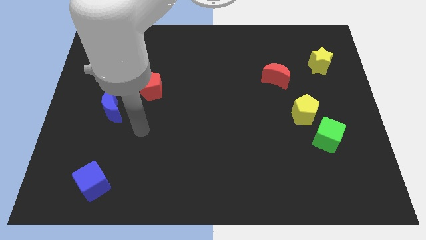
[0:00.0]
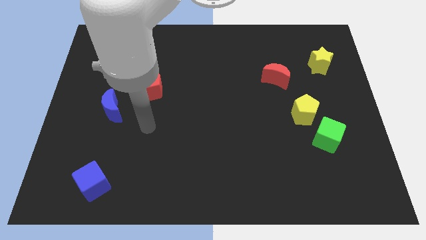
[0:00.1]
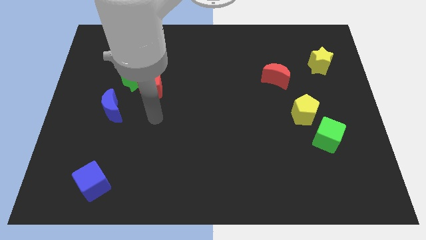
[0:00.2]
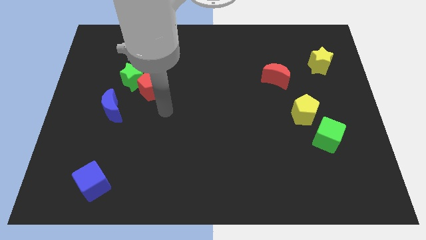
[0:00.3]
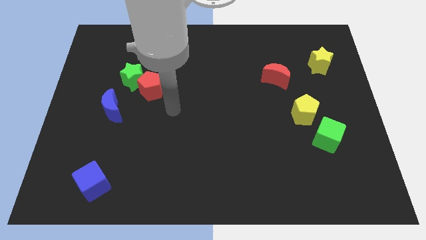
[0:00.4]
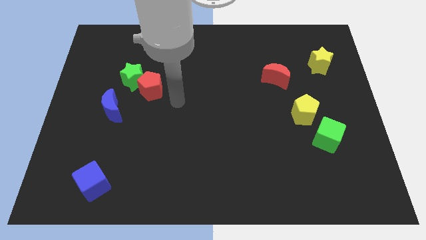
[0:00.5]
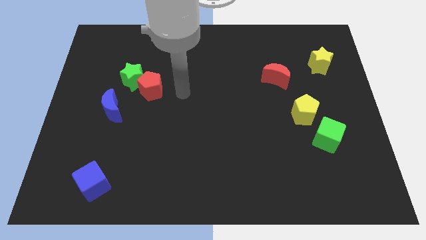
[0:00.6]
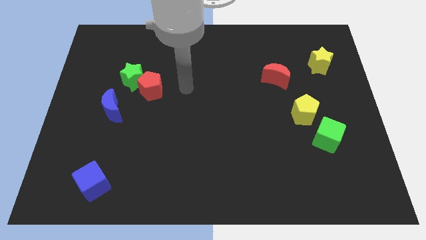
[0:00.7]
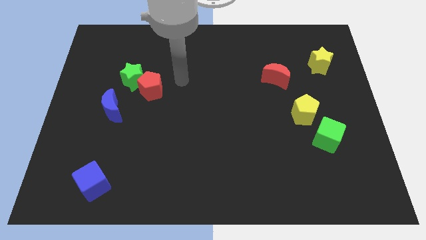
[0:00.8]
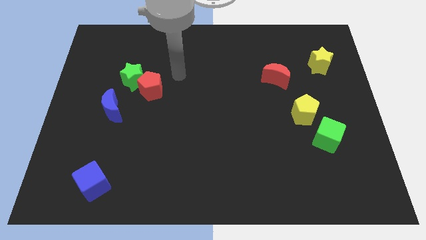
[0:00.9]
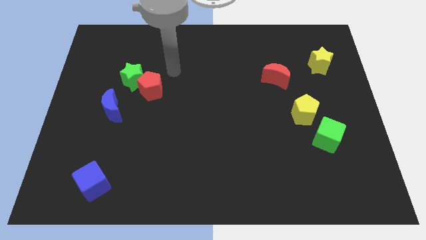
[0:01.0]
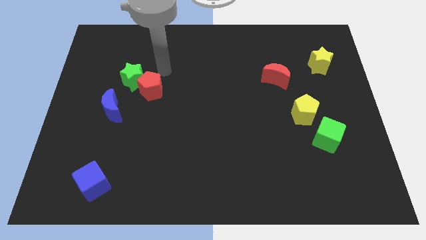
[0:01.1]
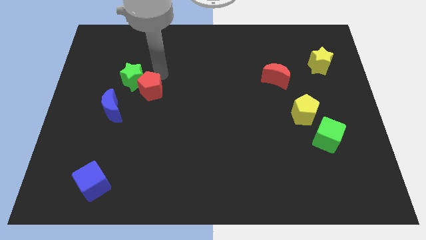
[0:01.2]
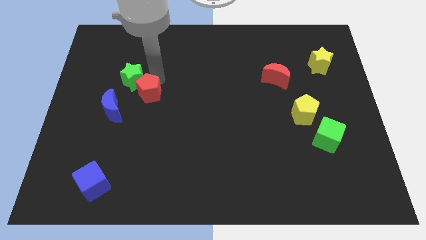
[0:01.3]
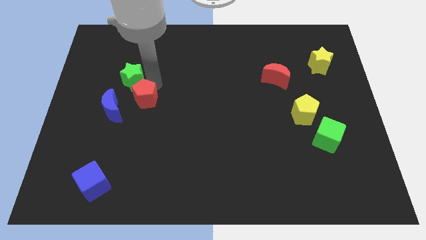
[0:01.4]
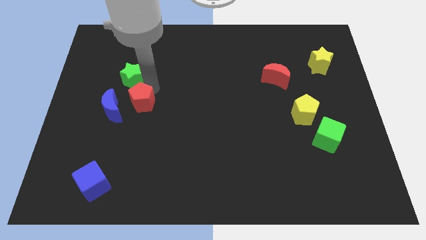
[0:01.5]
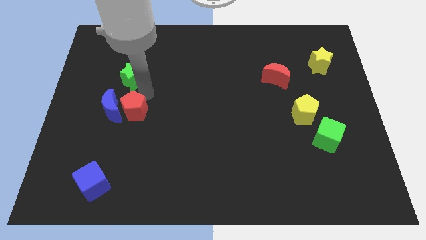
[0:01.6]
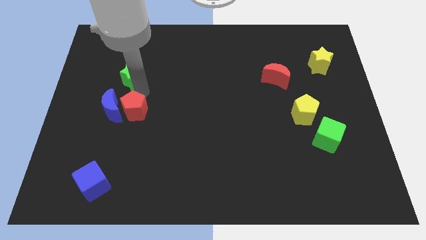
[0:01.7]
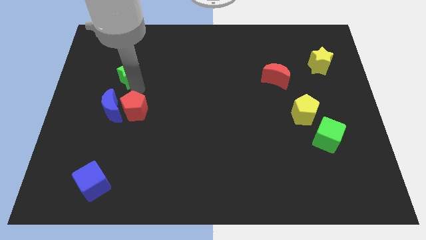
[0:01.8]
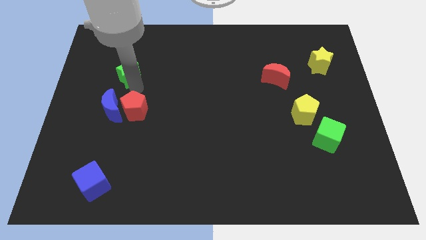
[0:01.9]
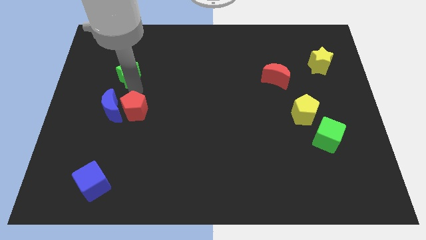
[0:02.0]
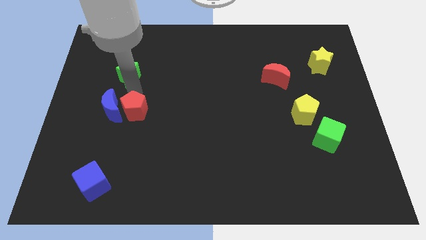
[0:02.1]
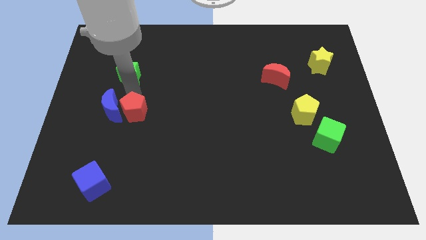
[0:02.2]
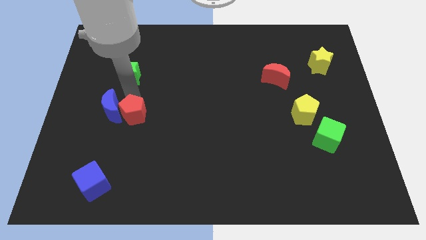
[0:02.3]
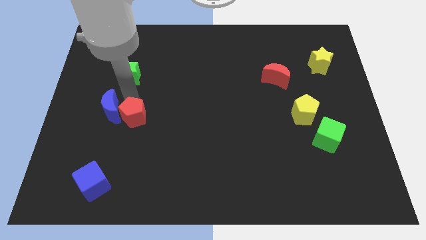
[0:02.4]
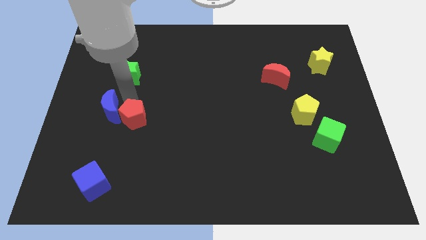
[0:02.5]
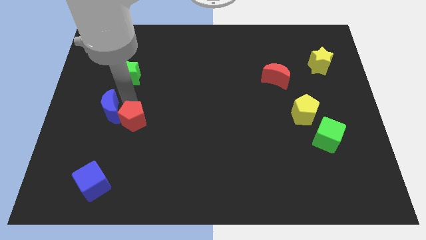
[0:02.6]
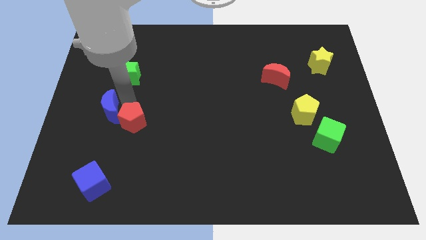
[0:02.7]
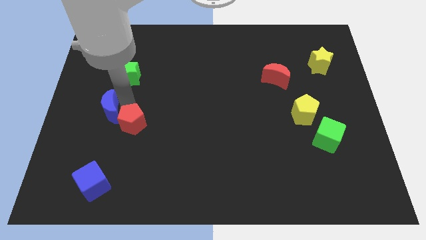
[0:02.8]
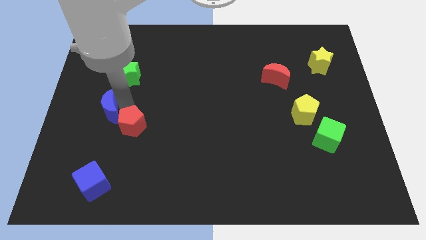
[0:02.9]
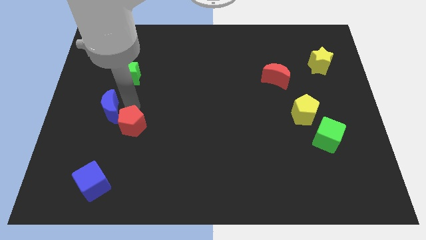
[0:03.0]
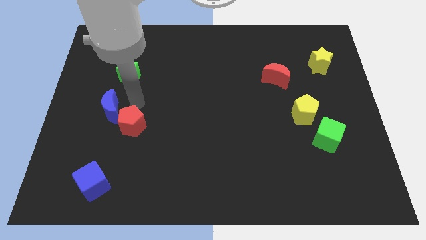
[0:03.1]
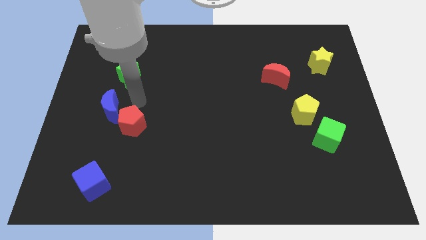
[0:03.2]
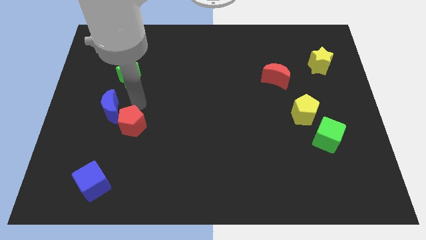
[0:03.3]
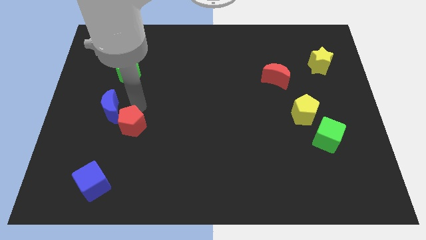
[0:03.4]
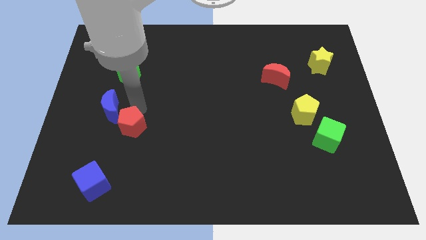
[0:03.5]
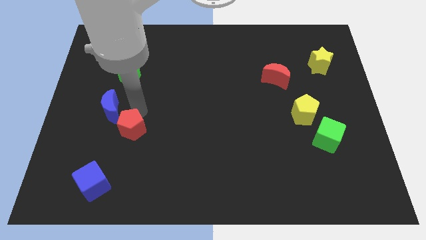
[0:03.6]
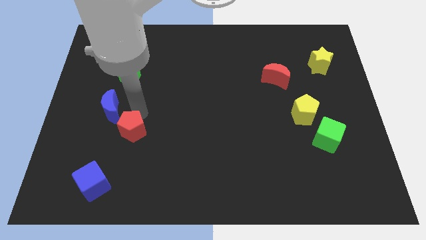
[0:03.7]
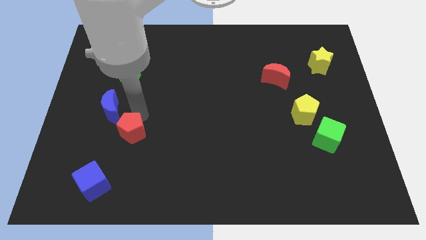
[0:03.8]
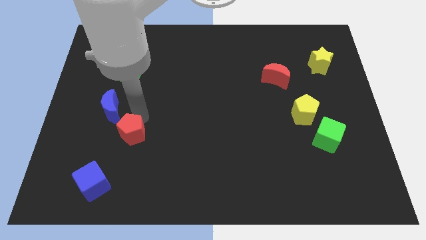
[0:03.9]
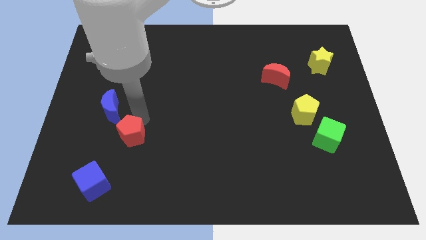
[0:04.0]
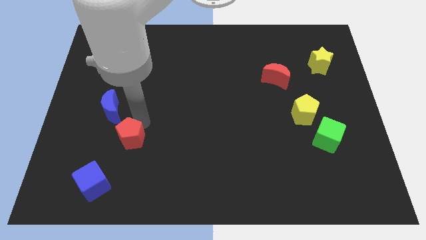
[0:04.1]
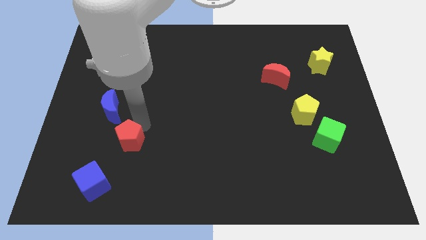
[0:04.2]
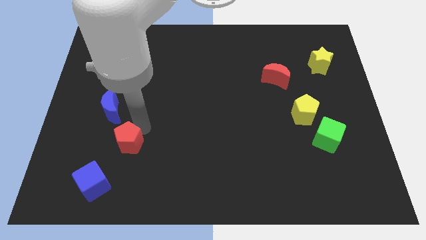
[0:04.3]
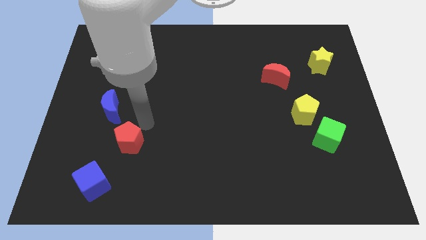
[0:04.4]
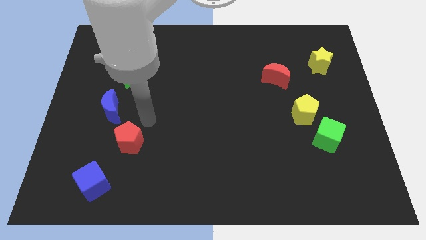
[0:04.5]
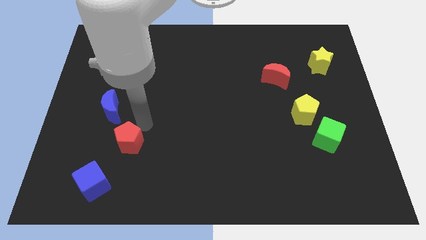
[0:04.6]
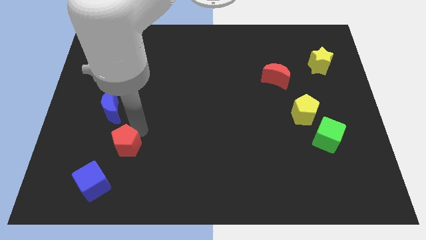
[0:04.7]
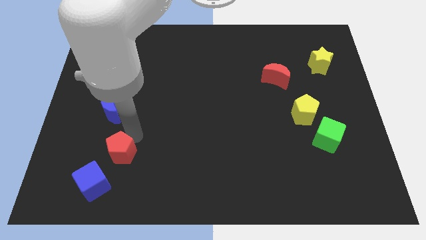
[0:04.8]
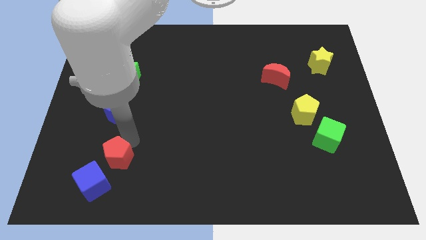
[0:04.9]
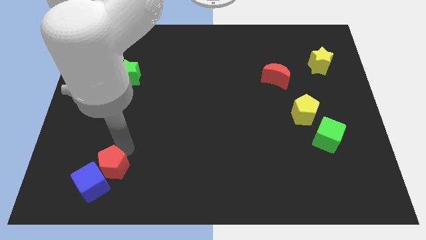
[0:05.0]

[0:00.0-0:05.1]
push the red pentagon close to the blue cube

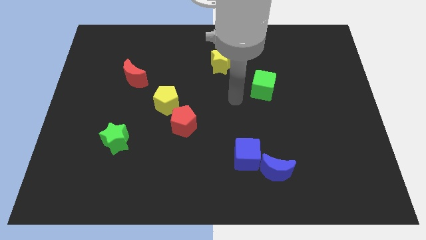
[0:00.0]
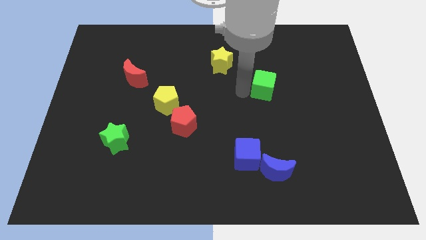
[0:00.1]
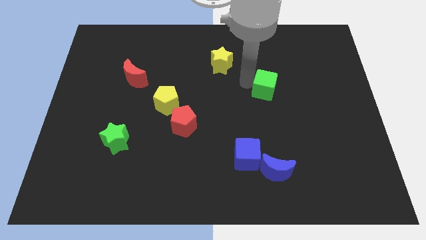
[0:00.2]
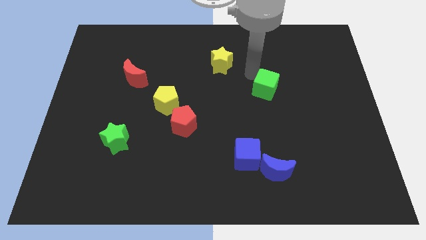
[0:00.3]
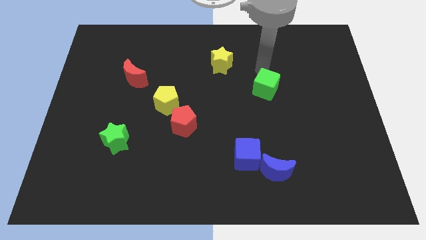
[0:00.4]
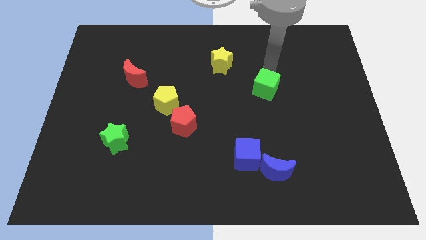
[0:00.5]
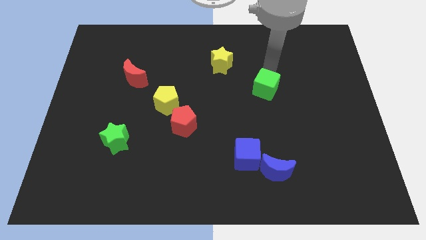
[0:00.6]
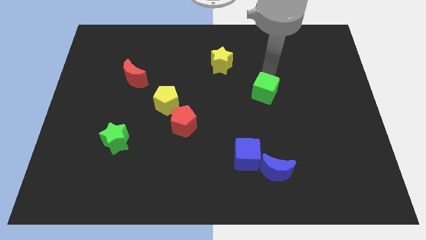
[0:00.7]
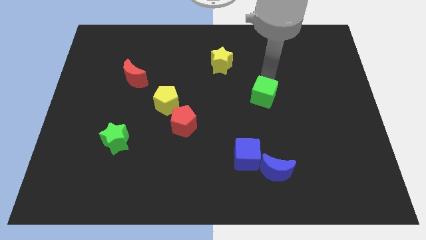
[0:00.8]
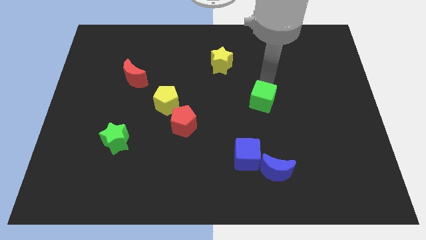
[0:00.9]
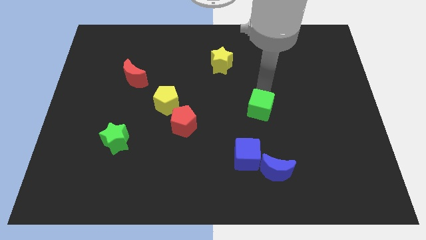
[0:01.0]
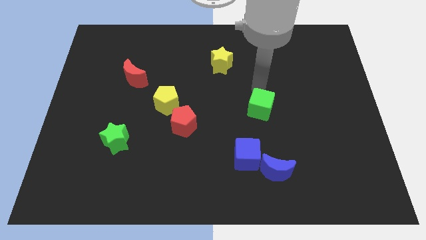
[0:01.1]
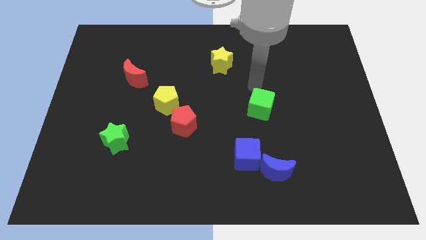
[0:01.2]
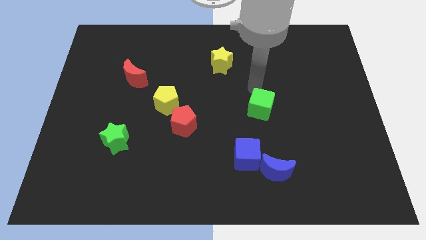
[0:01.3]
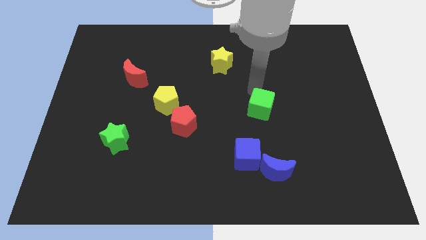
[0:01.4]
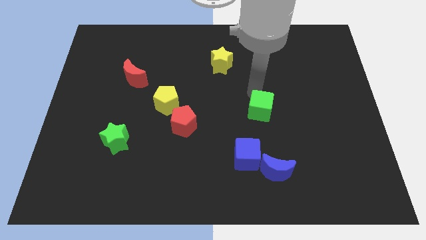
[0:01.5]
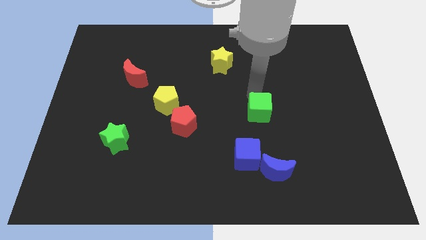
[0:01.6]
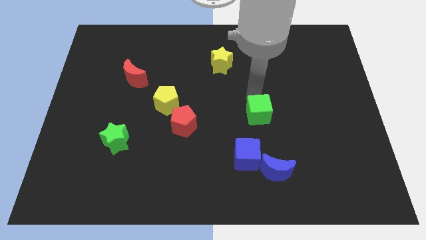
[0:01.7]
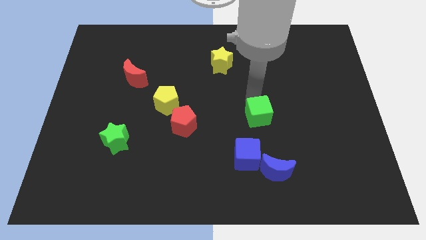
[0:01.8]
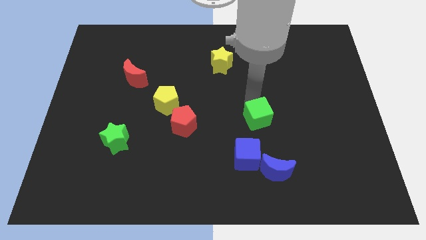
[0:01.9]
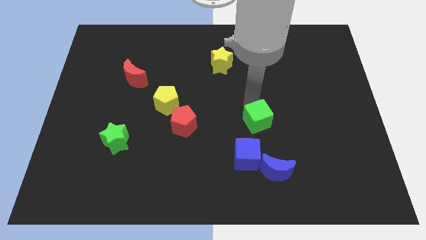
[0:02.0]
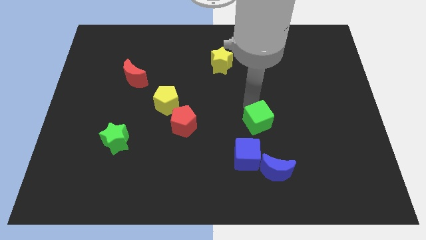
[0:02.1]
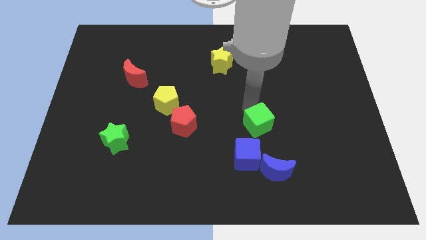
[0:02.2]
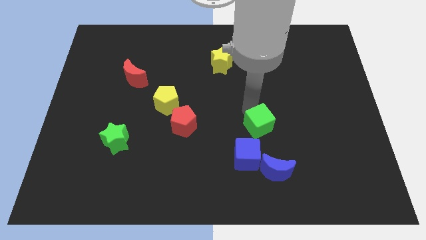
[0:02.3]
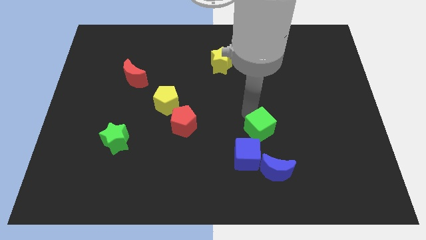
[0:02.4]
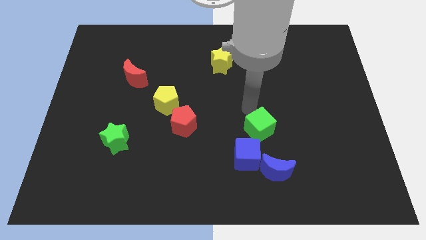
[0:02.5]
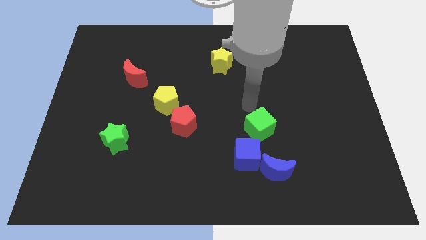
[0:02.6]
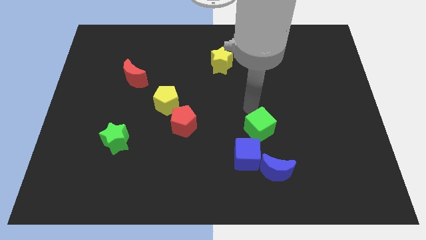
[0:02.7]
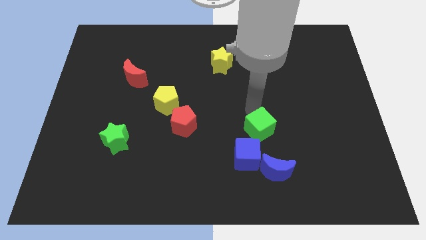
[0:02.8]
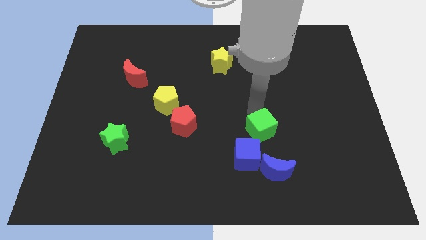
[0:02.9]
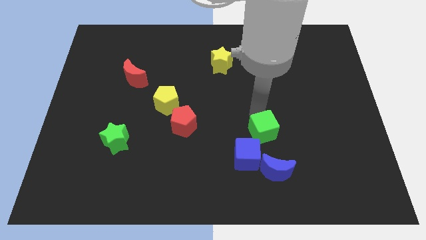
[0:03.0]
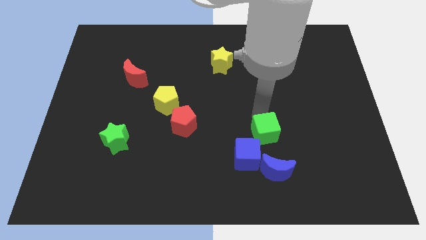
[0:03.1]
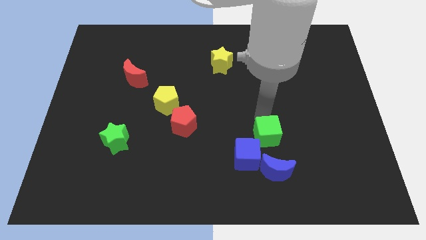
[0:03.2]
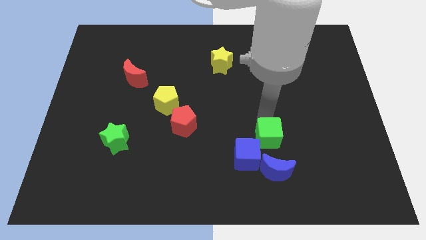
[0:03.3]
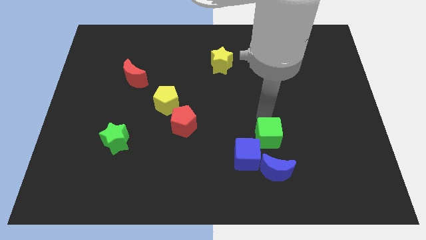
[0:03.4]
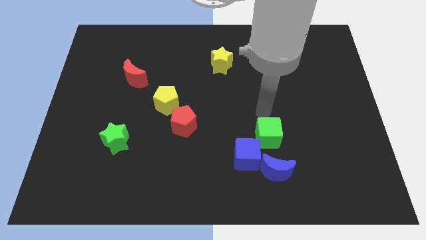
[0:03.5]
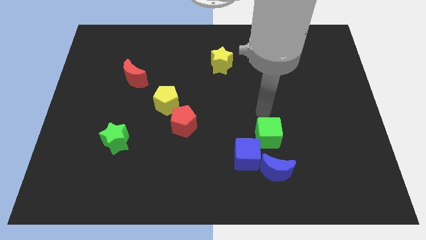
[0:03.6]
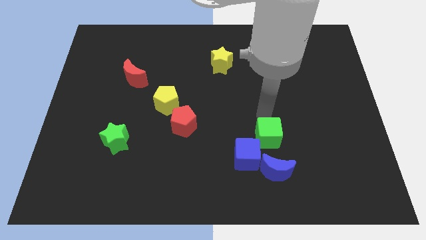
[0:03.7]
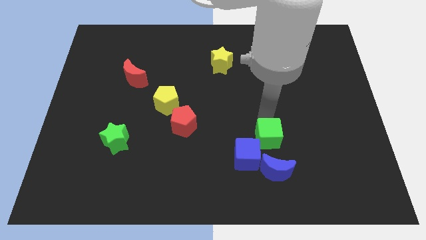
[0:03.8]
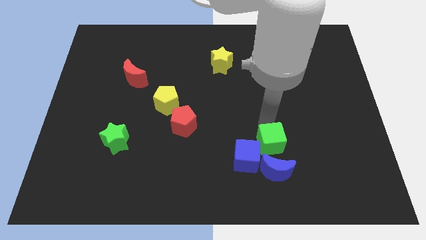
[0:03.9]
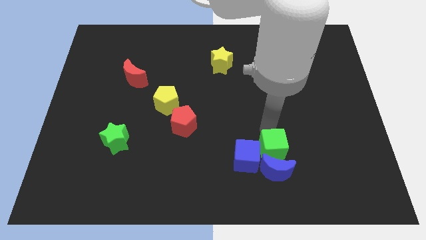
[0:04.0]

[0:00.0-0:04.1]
slide the green cube towards the blue moon
